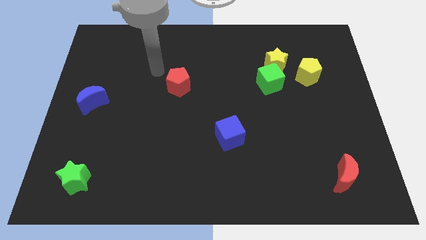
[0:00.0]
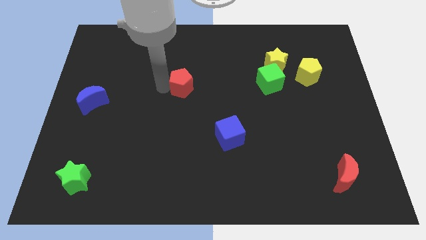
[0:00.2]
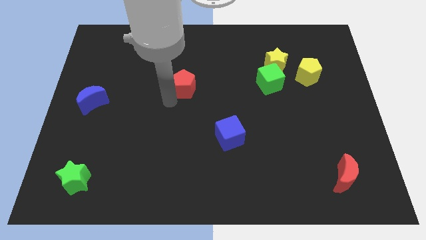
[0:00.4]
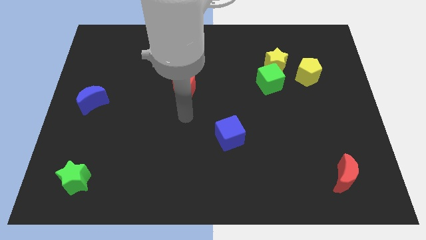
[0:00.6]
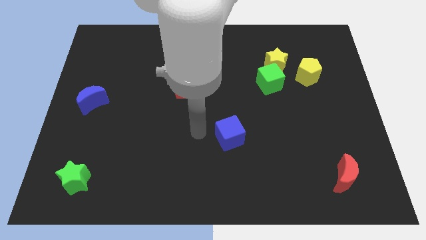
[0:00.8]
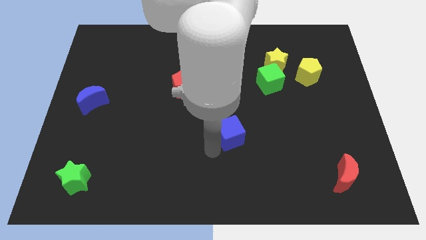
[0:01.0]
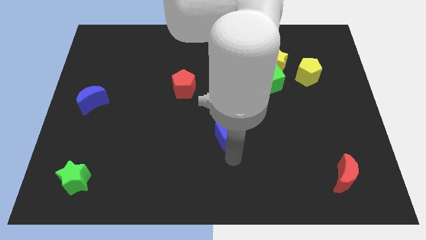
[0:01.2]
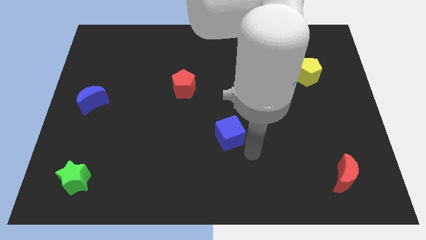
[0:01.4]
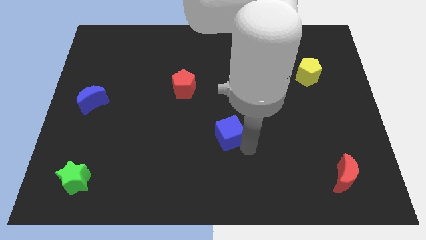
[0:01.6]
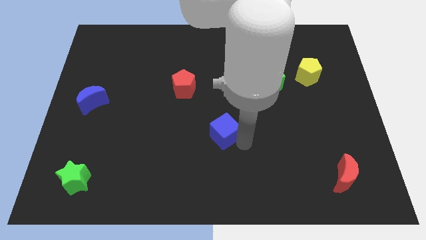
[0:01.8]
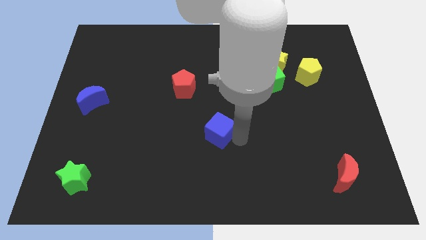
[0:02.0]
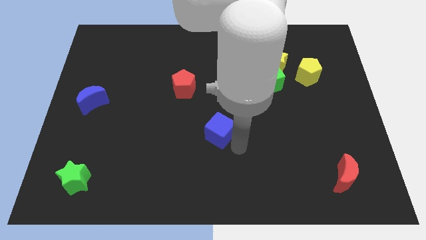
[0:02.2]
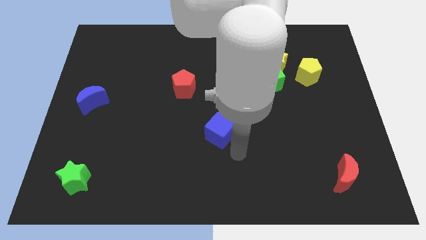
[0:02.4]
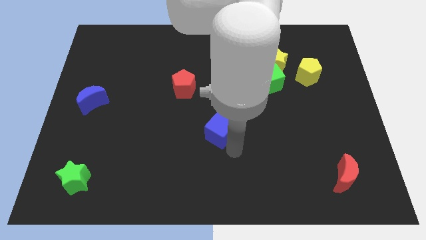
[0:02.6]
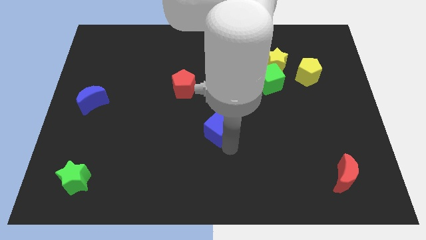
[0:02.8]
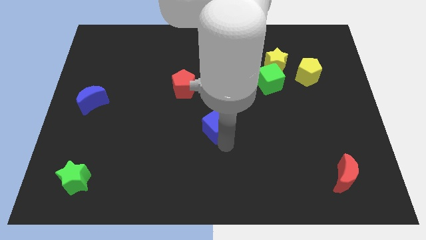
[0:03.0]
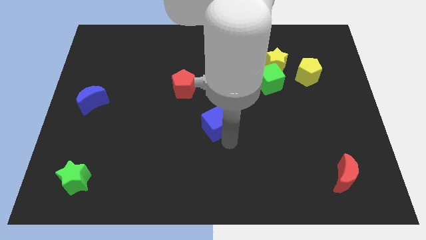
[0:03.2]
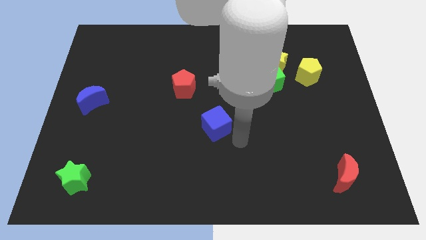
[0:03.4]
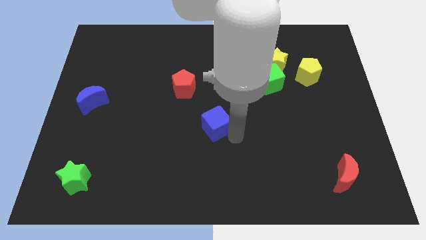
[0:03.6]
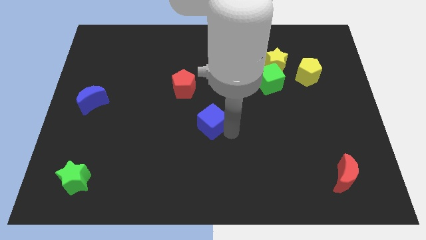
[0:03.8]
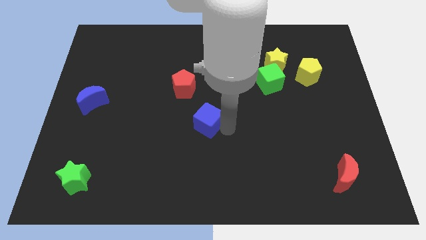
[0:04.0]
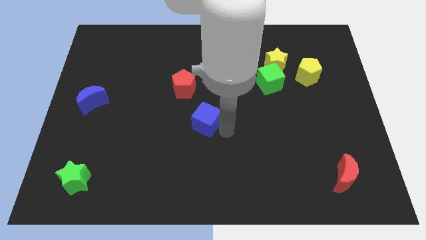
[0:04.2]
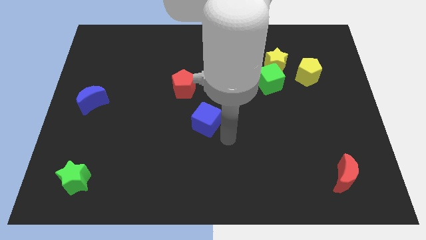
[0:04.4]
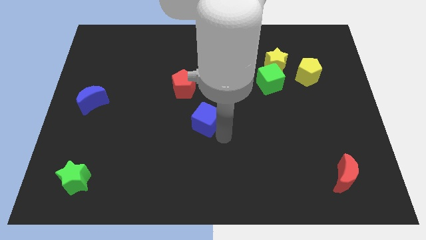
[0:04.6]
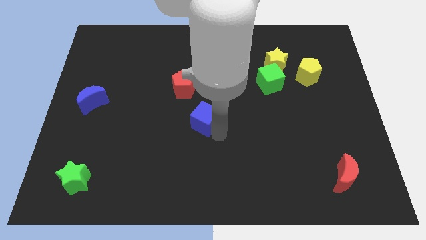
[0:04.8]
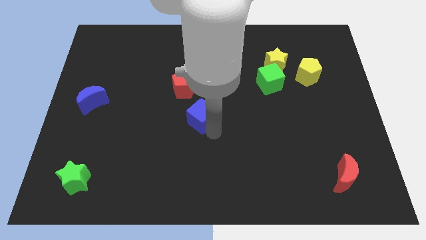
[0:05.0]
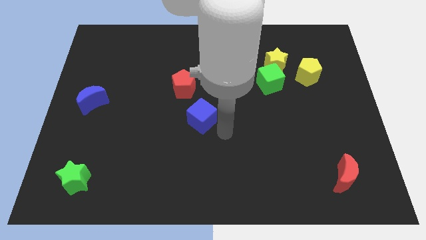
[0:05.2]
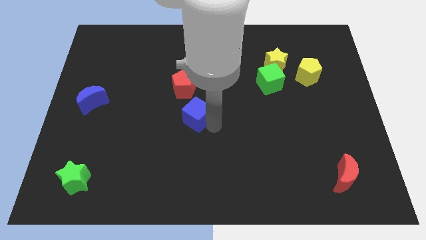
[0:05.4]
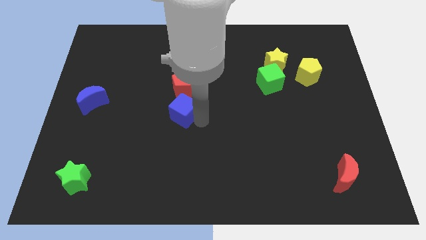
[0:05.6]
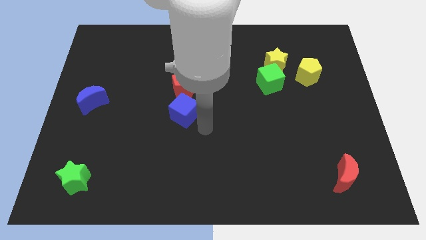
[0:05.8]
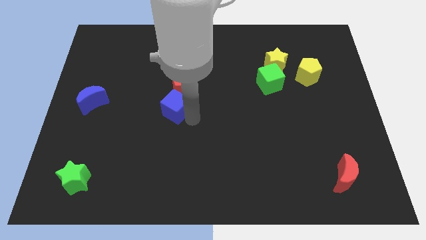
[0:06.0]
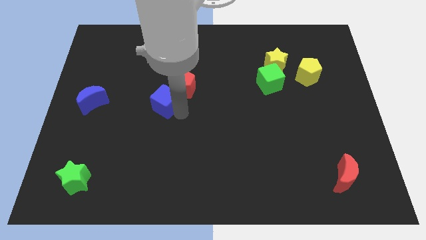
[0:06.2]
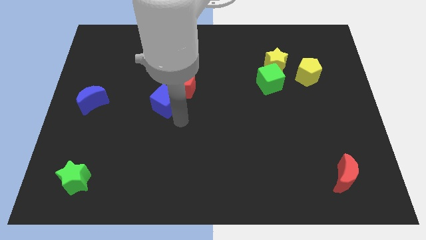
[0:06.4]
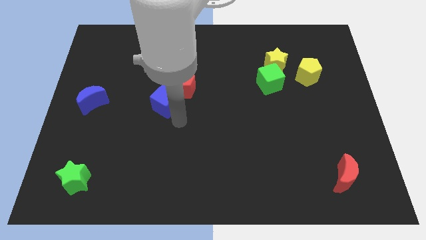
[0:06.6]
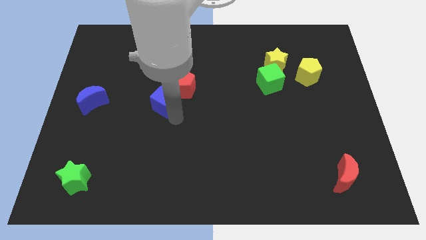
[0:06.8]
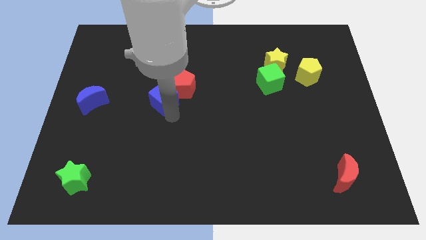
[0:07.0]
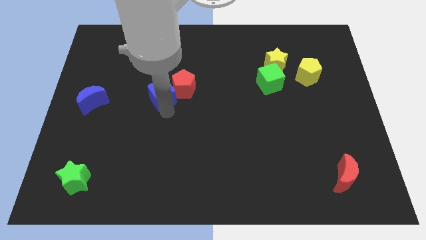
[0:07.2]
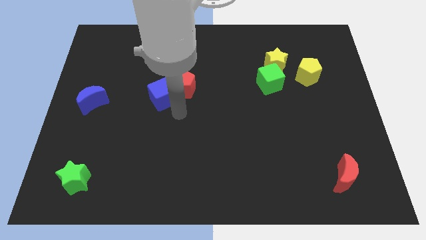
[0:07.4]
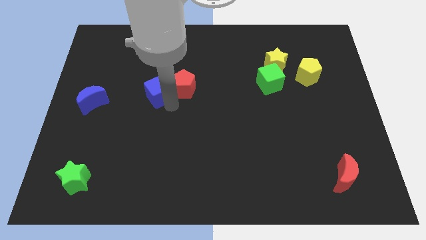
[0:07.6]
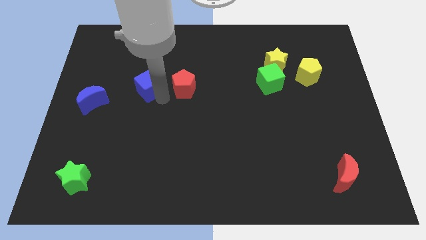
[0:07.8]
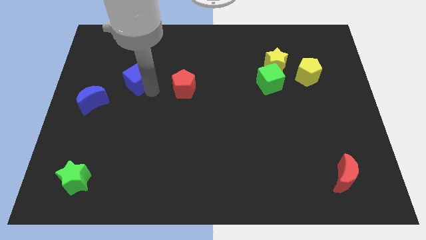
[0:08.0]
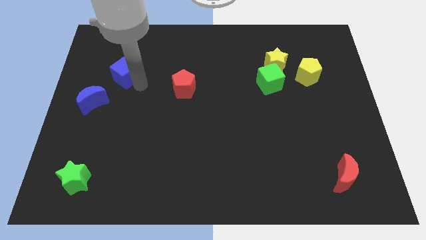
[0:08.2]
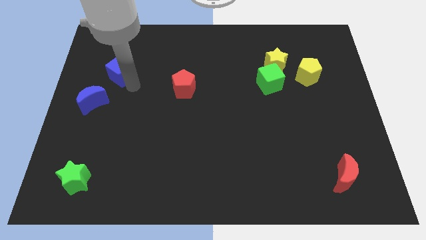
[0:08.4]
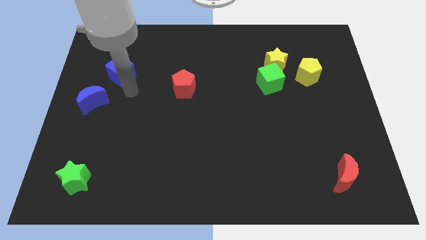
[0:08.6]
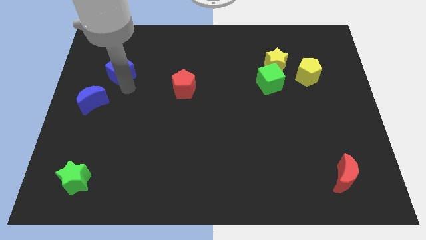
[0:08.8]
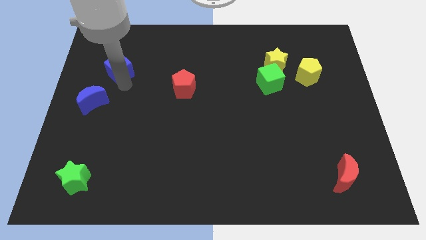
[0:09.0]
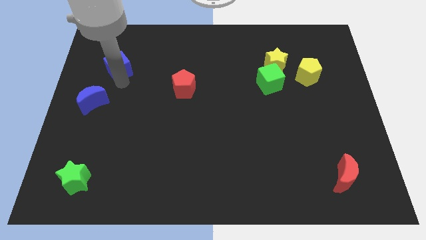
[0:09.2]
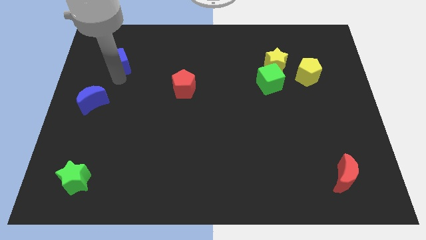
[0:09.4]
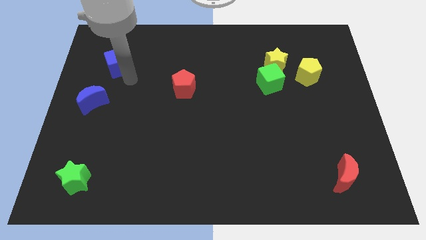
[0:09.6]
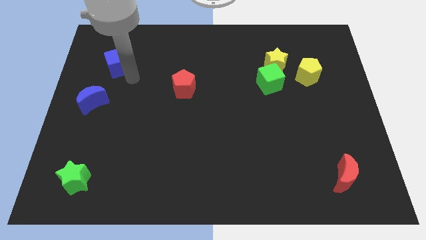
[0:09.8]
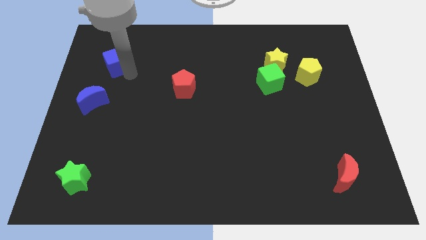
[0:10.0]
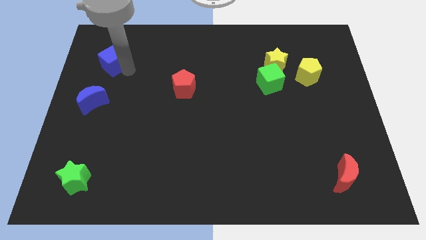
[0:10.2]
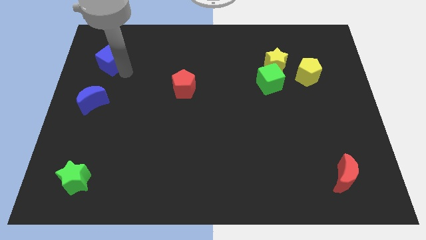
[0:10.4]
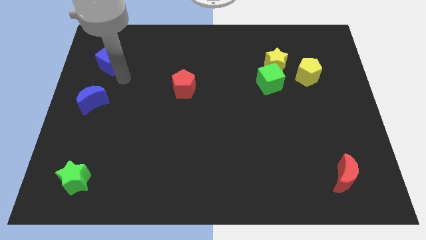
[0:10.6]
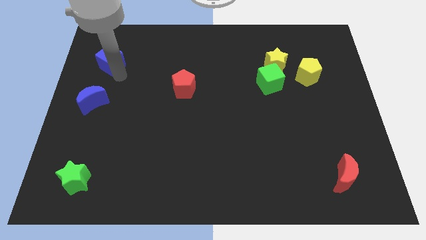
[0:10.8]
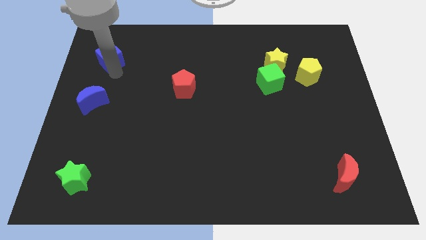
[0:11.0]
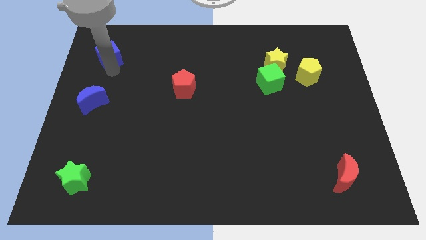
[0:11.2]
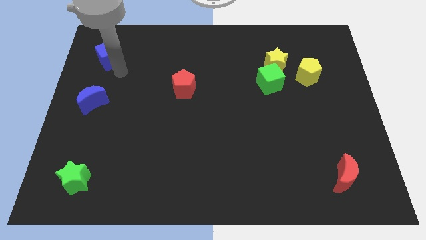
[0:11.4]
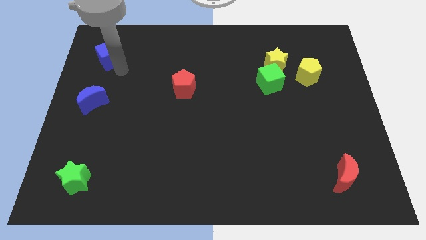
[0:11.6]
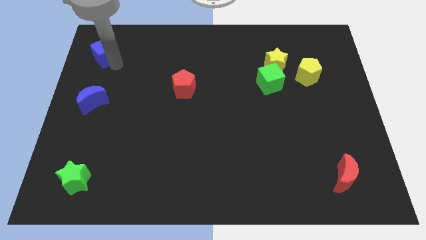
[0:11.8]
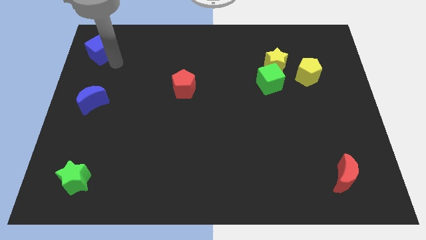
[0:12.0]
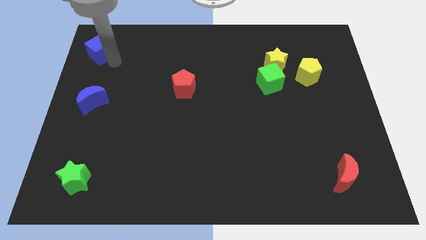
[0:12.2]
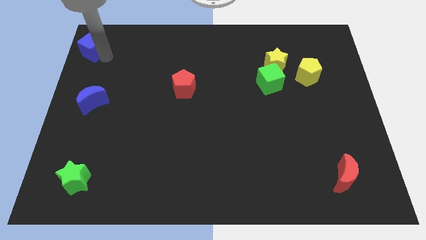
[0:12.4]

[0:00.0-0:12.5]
put the blue cube to the top left of the board
